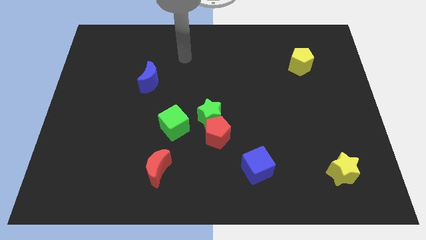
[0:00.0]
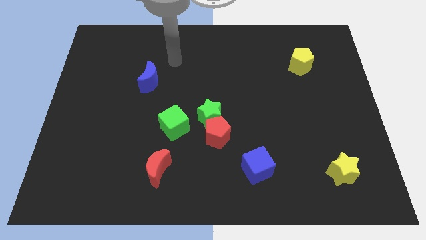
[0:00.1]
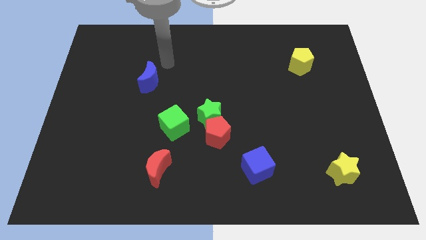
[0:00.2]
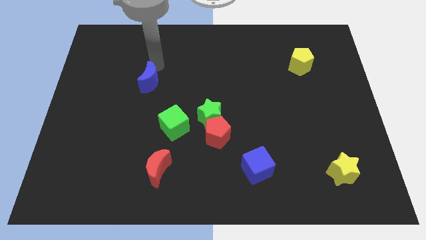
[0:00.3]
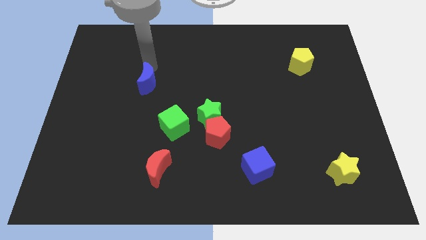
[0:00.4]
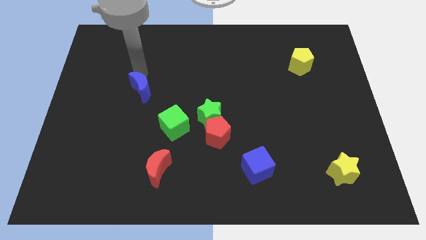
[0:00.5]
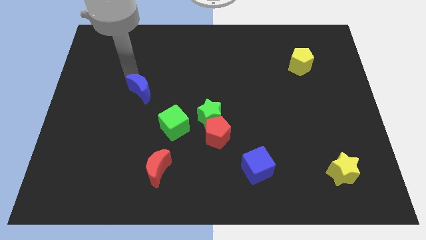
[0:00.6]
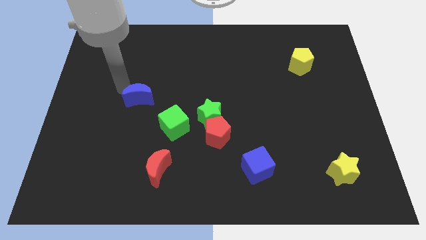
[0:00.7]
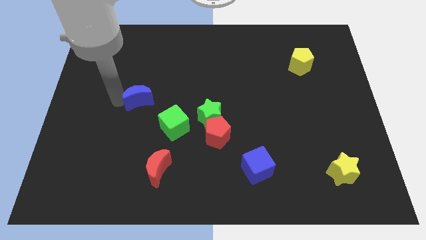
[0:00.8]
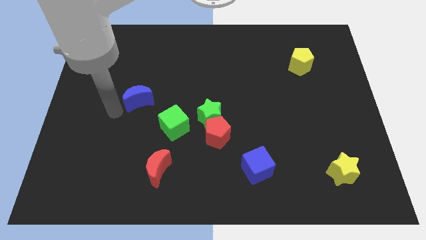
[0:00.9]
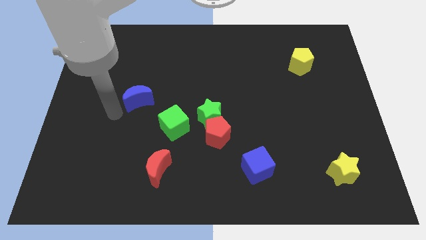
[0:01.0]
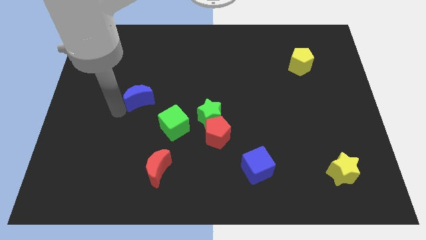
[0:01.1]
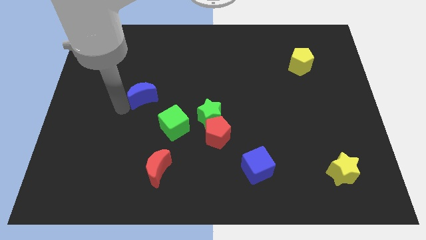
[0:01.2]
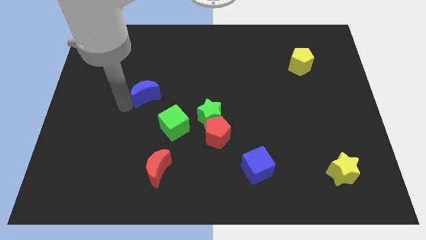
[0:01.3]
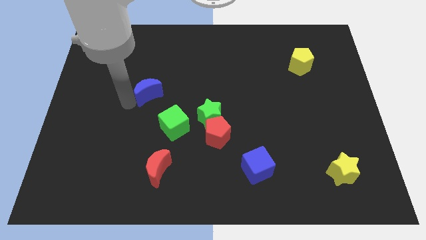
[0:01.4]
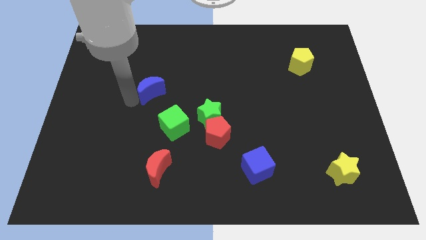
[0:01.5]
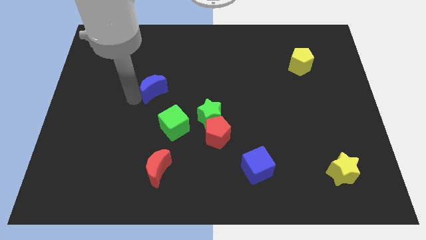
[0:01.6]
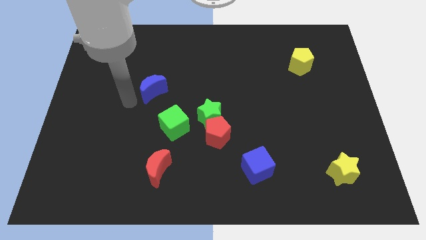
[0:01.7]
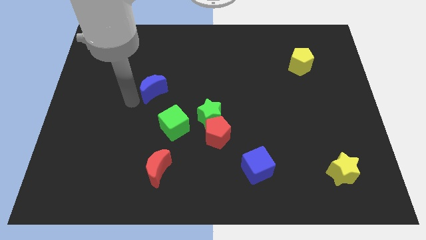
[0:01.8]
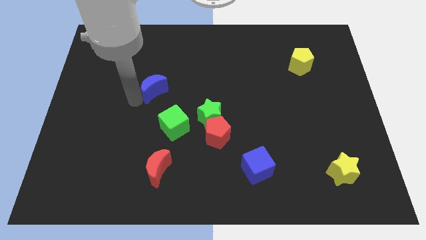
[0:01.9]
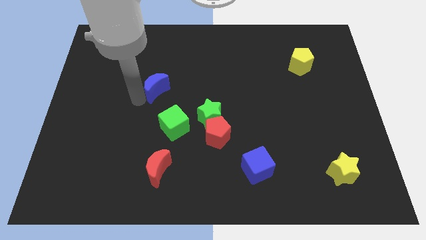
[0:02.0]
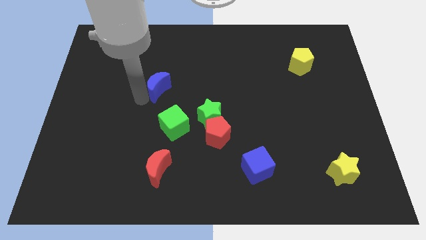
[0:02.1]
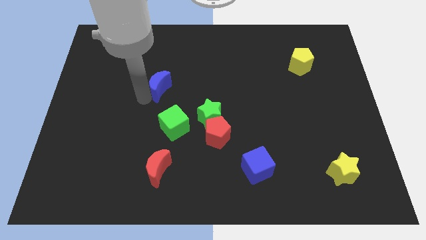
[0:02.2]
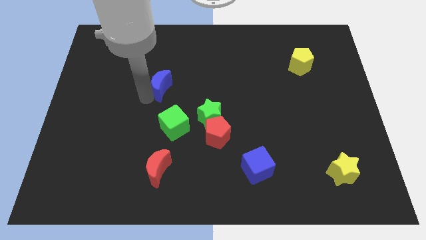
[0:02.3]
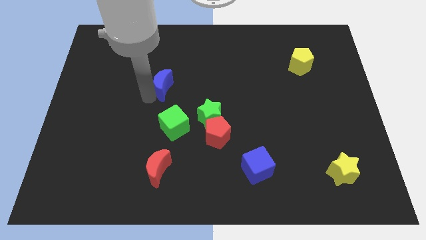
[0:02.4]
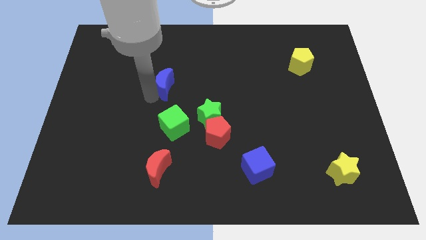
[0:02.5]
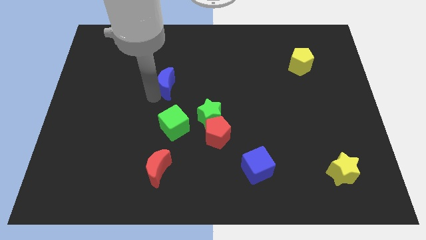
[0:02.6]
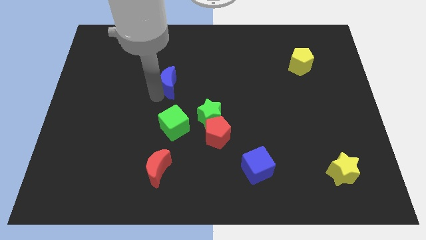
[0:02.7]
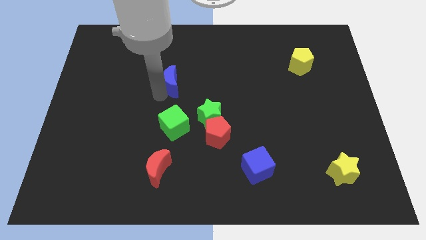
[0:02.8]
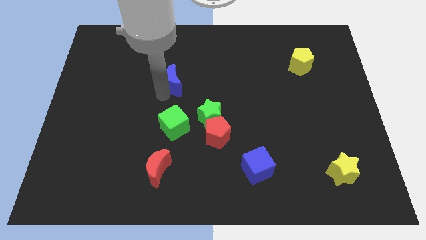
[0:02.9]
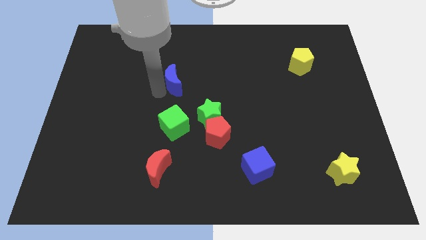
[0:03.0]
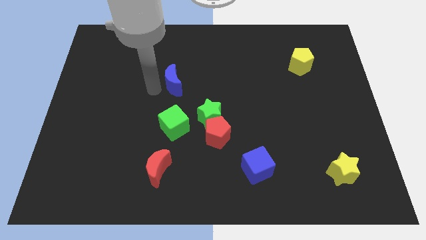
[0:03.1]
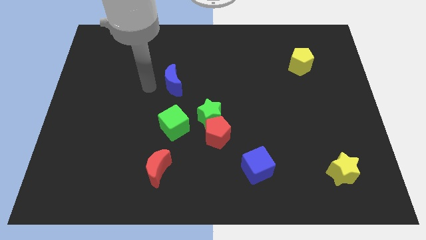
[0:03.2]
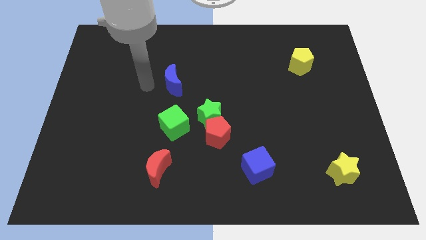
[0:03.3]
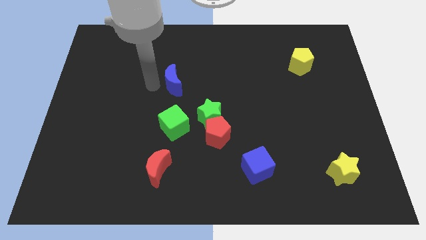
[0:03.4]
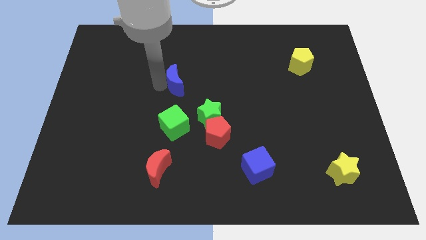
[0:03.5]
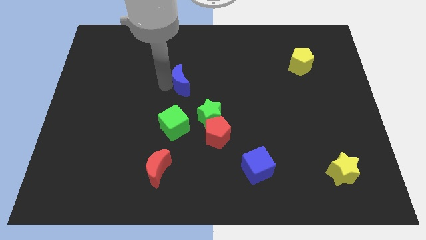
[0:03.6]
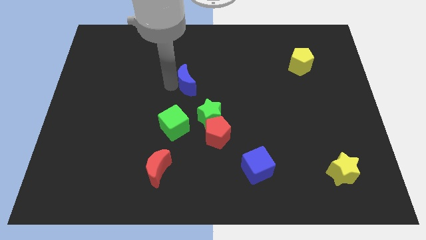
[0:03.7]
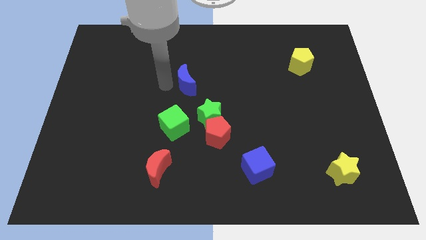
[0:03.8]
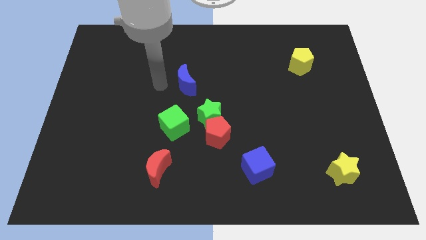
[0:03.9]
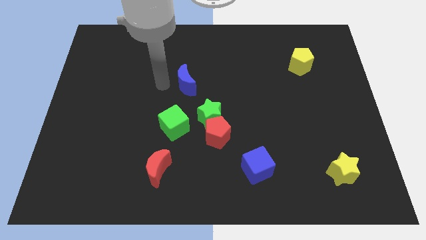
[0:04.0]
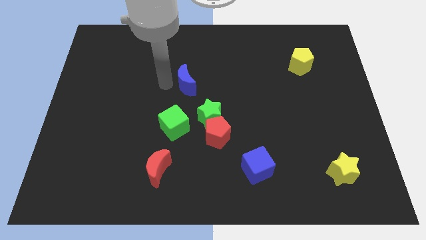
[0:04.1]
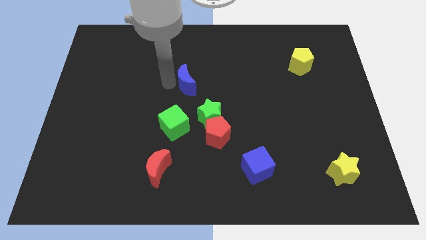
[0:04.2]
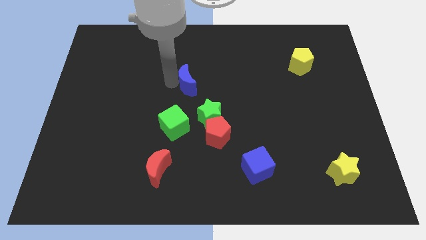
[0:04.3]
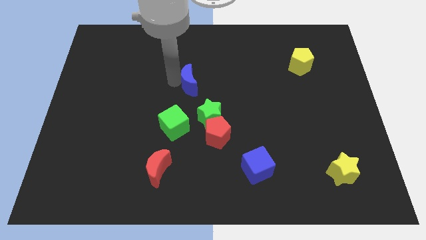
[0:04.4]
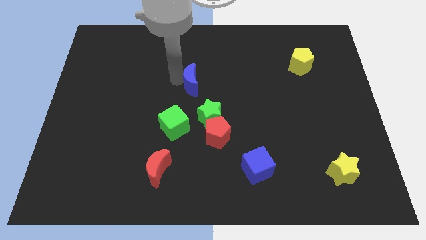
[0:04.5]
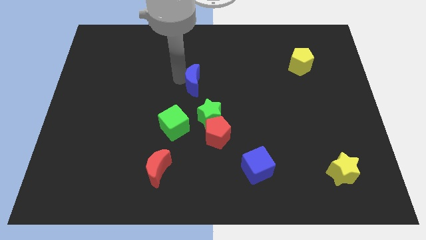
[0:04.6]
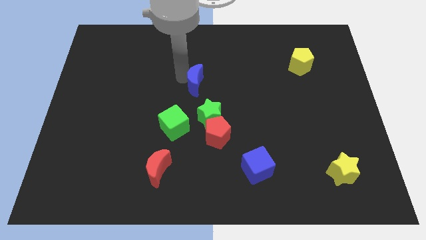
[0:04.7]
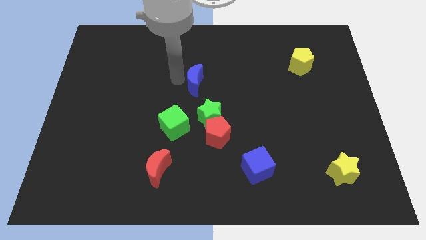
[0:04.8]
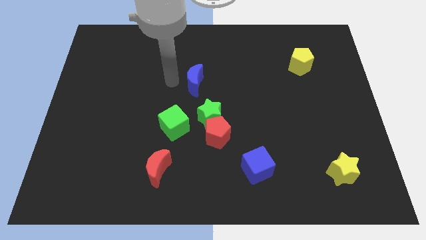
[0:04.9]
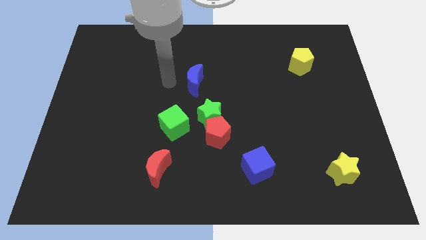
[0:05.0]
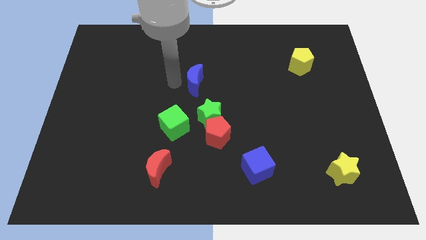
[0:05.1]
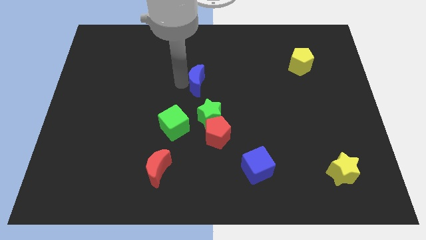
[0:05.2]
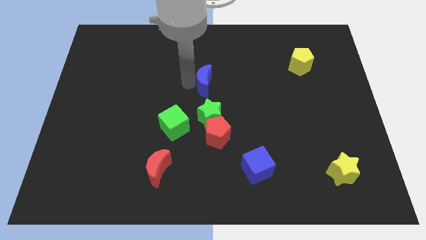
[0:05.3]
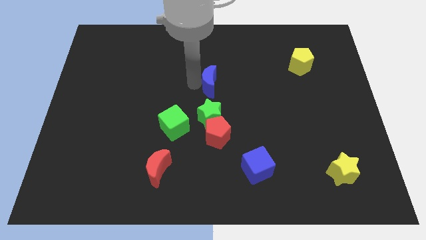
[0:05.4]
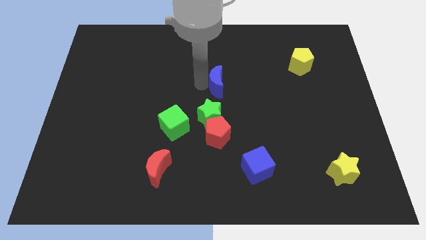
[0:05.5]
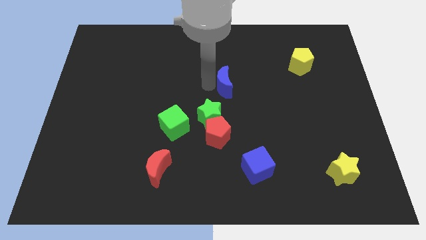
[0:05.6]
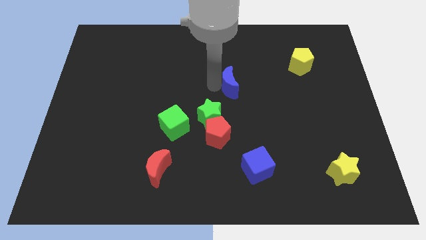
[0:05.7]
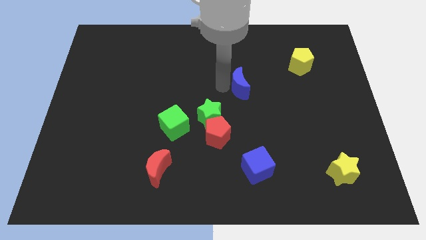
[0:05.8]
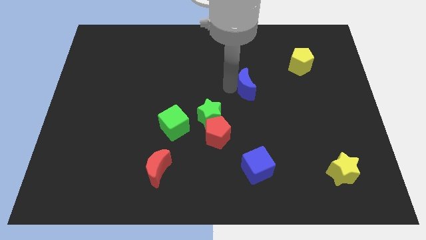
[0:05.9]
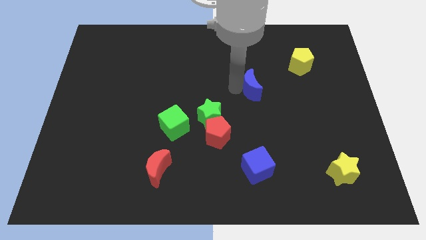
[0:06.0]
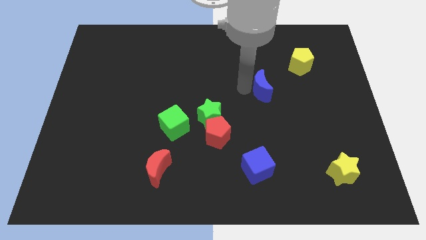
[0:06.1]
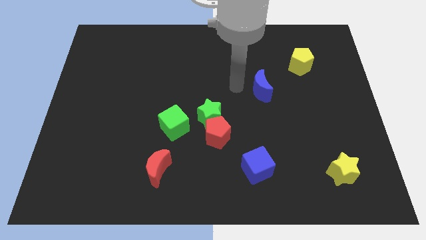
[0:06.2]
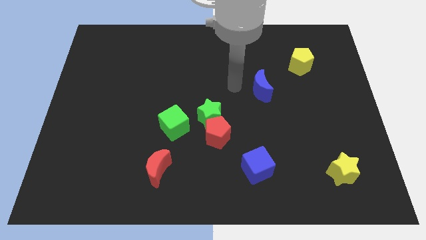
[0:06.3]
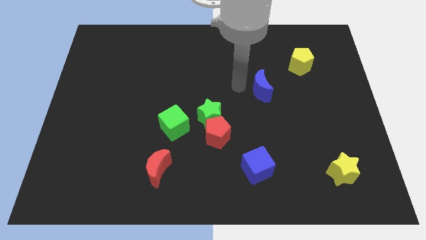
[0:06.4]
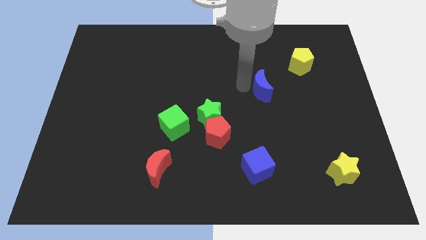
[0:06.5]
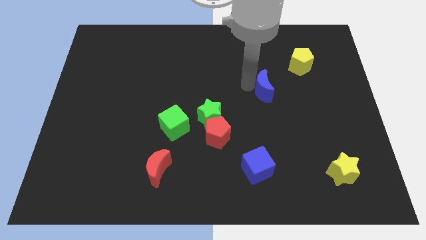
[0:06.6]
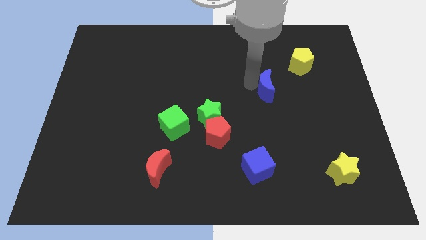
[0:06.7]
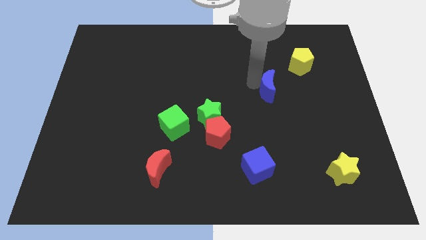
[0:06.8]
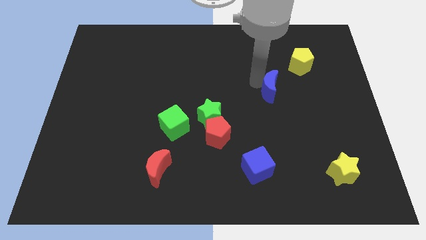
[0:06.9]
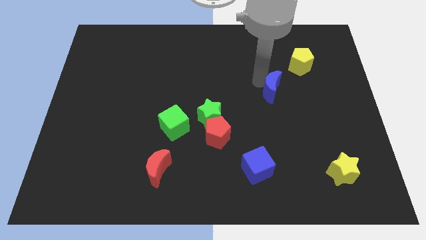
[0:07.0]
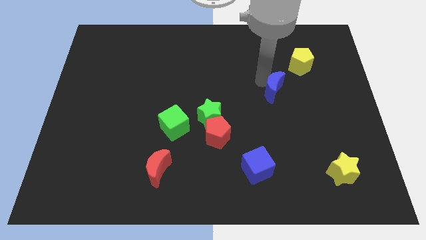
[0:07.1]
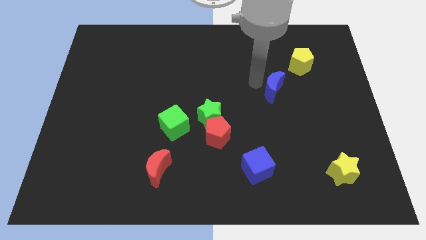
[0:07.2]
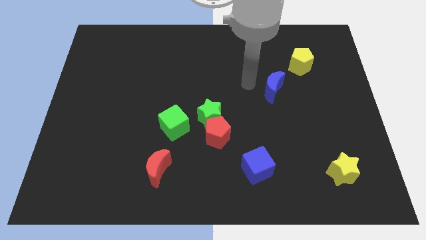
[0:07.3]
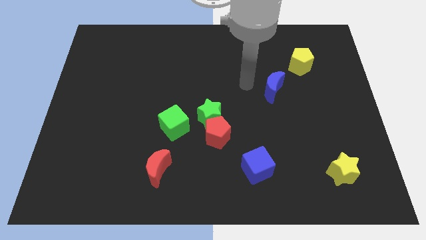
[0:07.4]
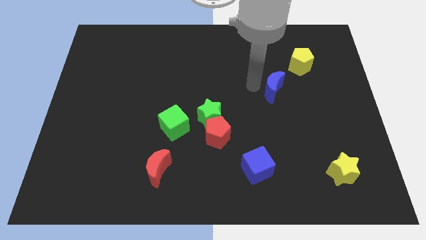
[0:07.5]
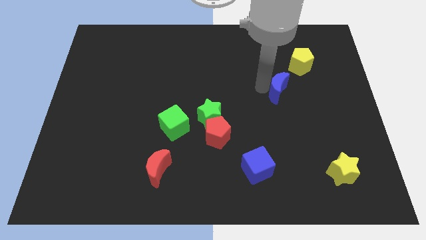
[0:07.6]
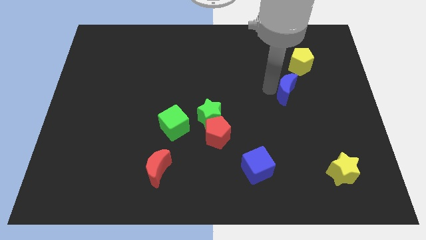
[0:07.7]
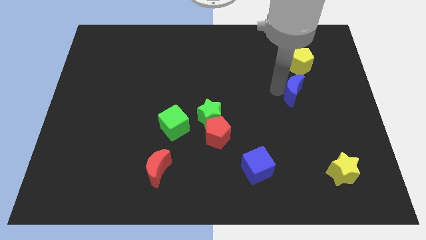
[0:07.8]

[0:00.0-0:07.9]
slide the blue moon to the bottom of the yellow pentagon
